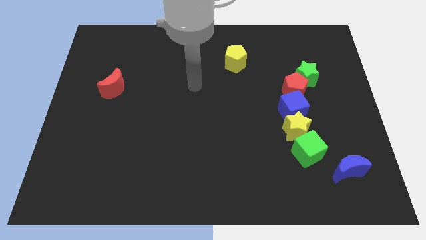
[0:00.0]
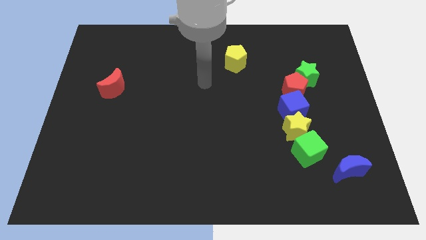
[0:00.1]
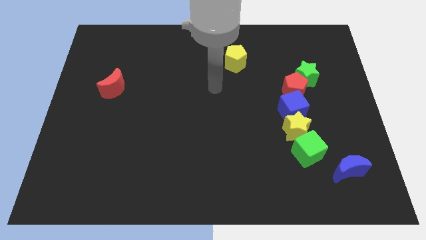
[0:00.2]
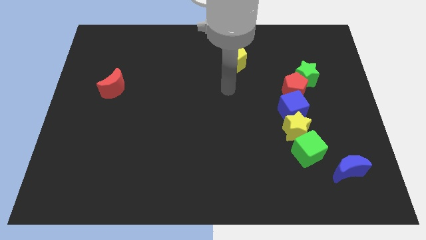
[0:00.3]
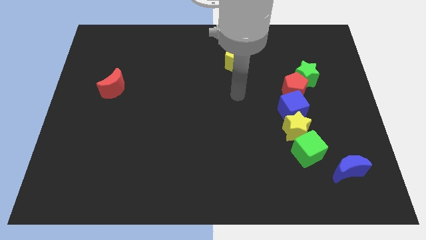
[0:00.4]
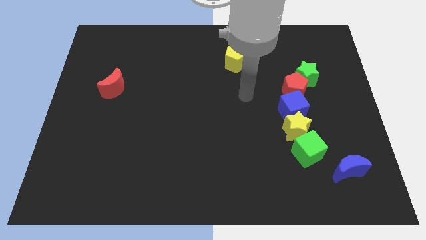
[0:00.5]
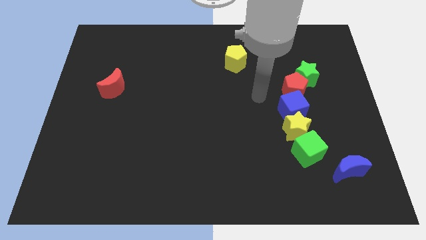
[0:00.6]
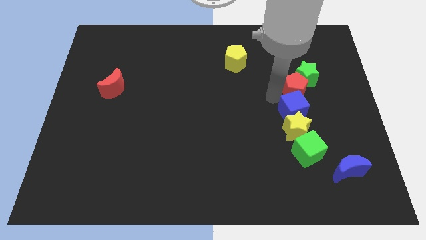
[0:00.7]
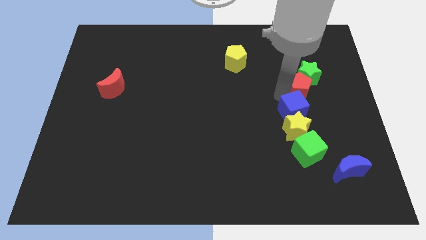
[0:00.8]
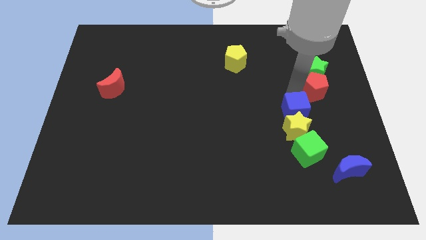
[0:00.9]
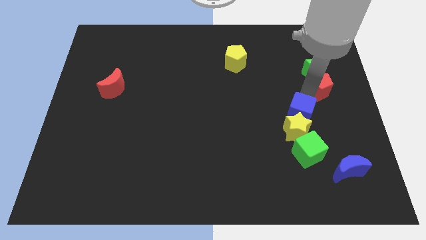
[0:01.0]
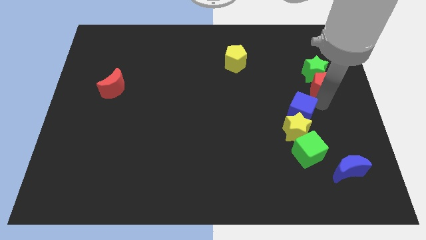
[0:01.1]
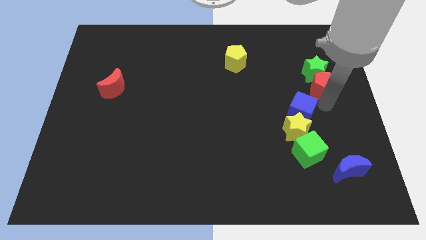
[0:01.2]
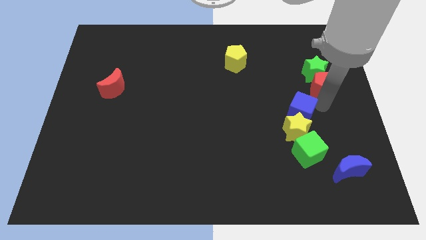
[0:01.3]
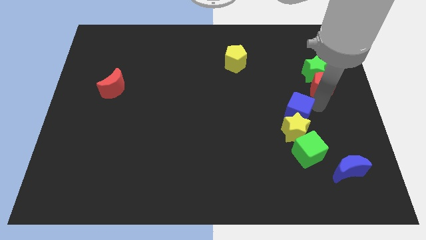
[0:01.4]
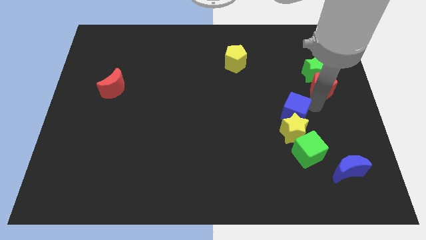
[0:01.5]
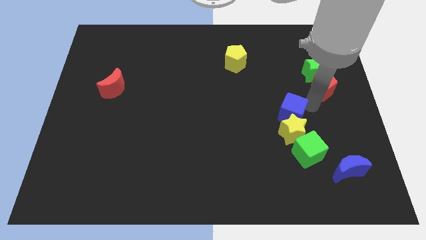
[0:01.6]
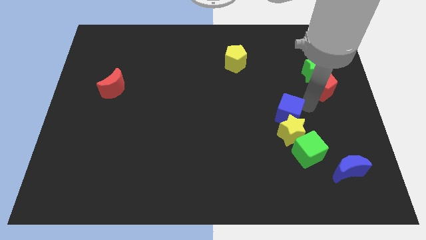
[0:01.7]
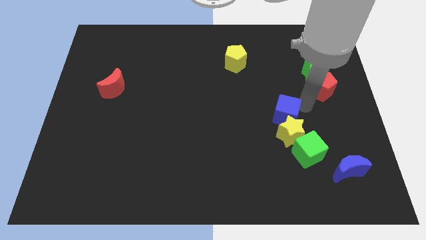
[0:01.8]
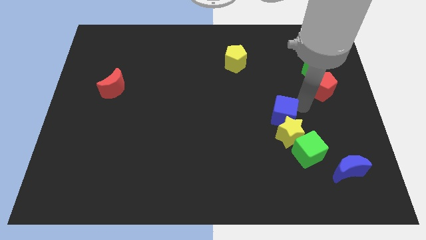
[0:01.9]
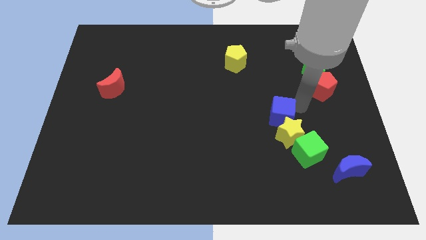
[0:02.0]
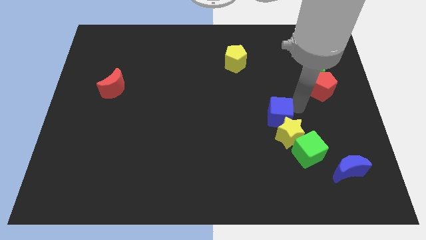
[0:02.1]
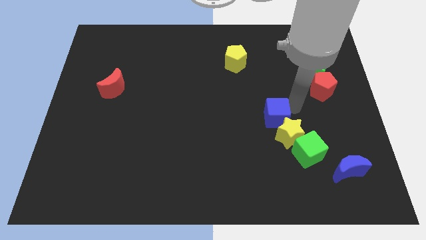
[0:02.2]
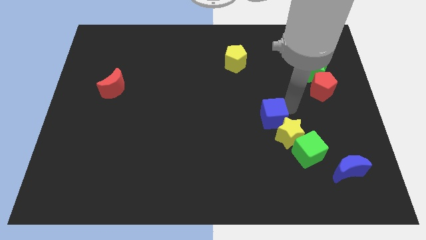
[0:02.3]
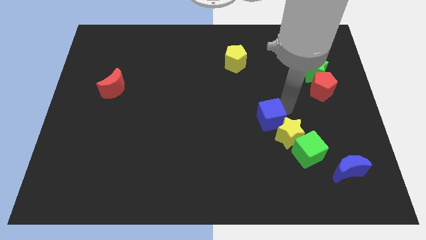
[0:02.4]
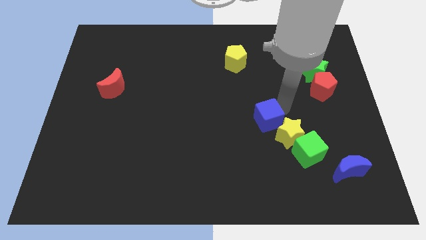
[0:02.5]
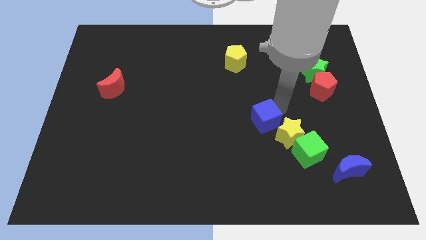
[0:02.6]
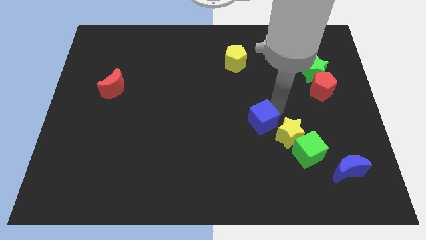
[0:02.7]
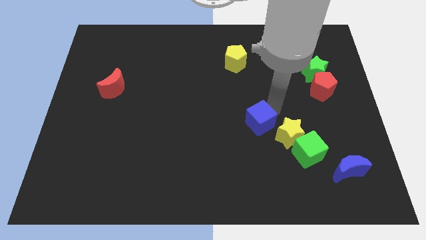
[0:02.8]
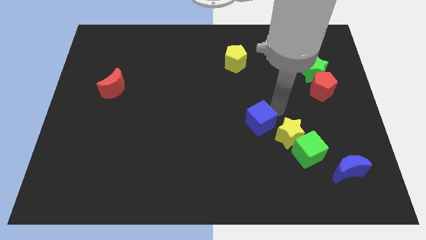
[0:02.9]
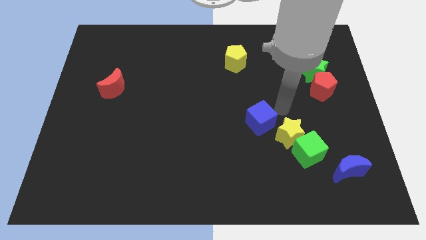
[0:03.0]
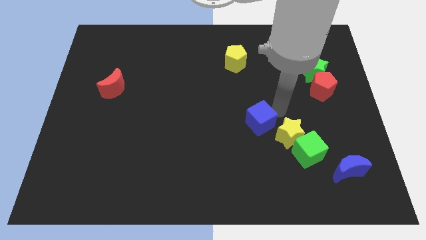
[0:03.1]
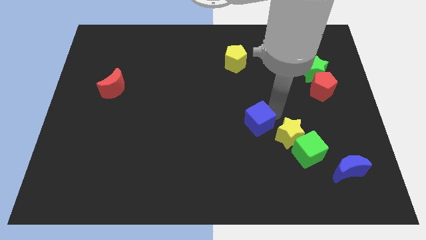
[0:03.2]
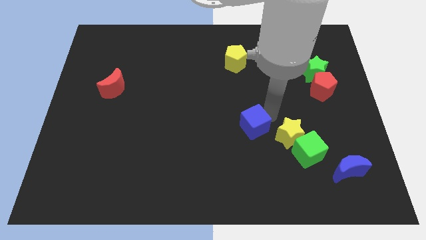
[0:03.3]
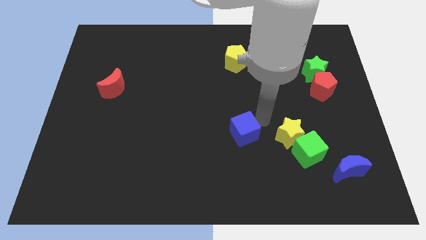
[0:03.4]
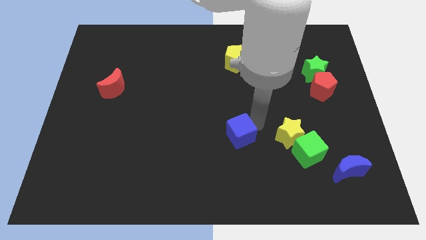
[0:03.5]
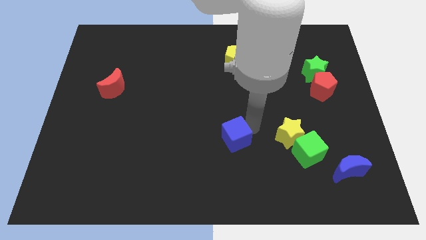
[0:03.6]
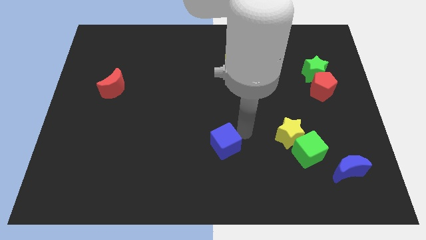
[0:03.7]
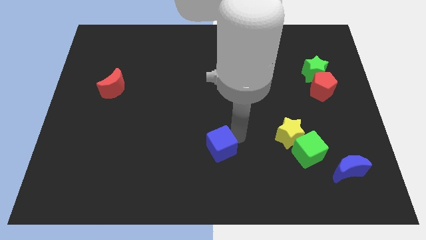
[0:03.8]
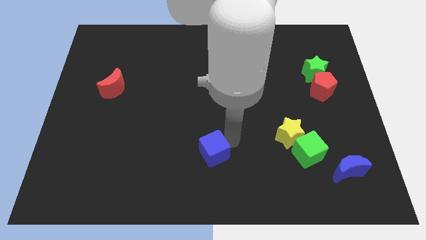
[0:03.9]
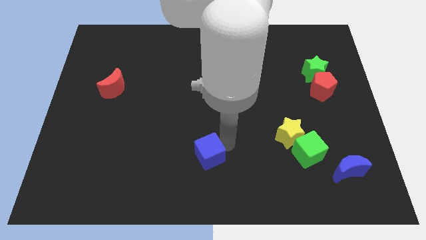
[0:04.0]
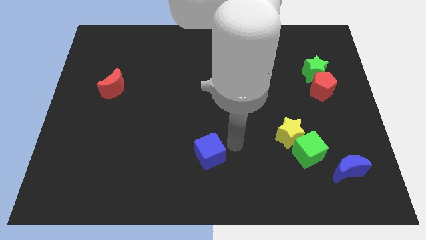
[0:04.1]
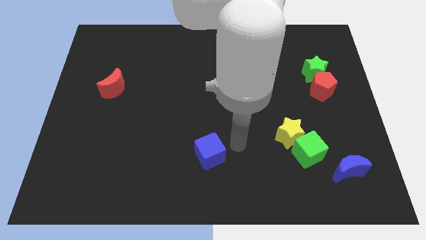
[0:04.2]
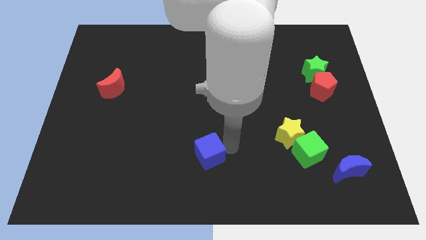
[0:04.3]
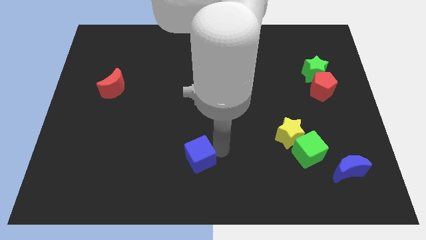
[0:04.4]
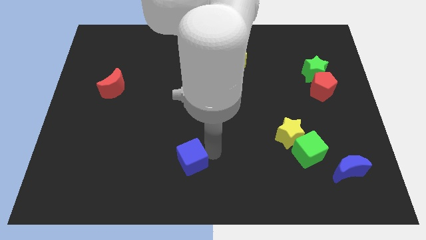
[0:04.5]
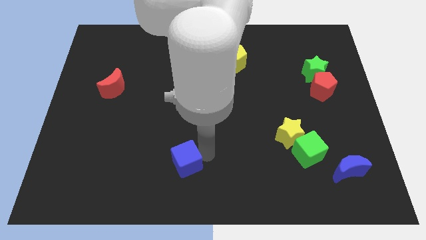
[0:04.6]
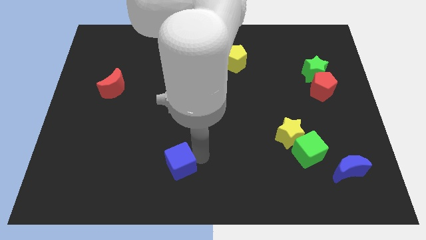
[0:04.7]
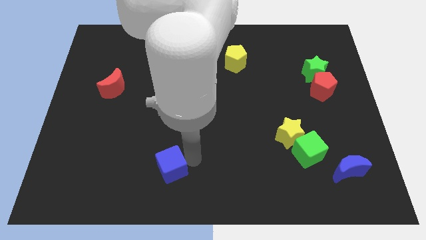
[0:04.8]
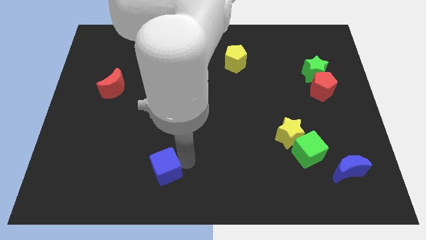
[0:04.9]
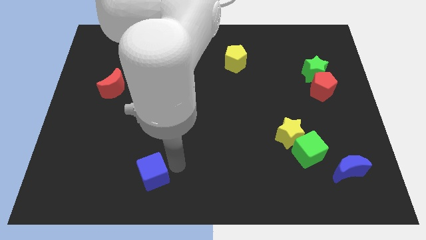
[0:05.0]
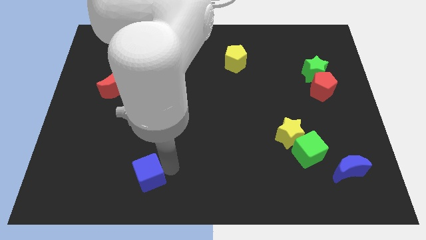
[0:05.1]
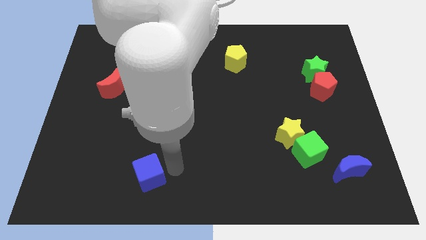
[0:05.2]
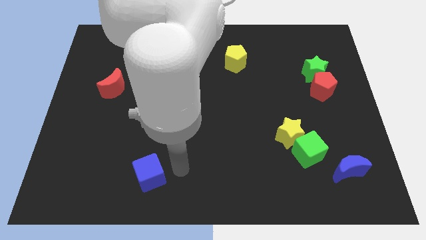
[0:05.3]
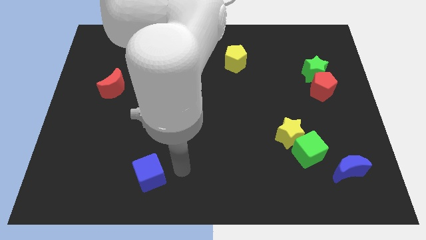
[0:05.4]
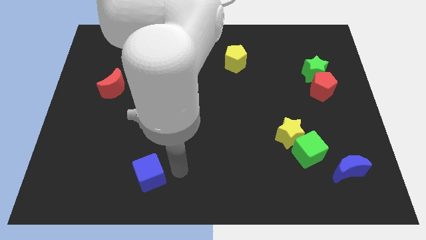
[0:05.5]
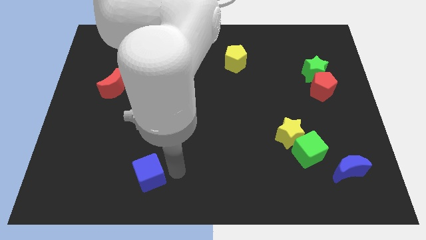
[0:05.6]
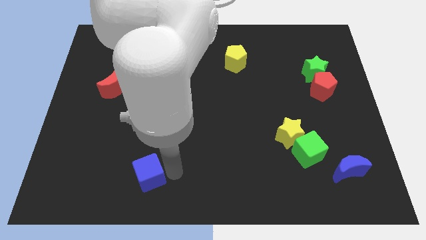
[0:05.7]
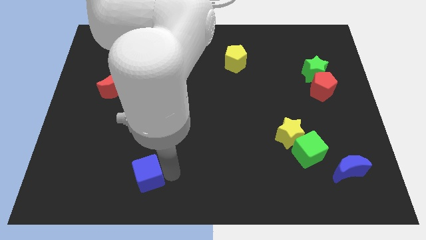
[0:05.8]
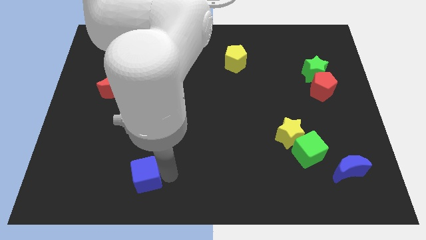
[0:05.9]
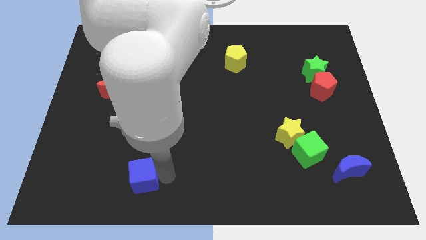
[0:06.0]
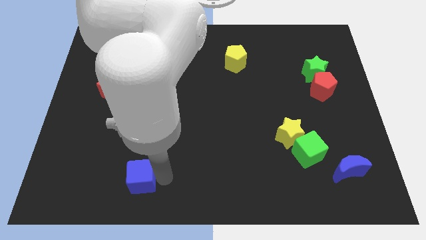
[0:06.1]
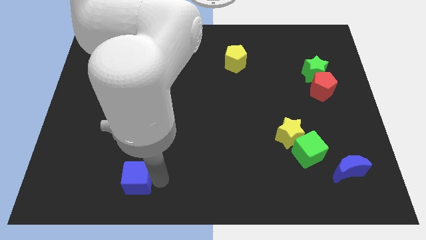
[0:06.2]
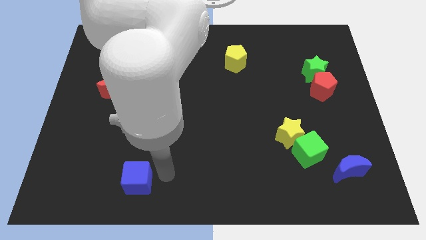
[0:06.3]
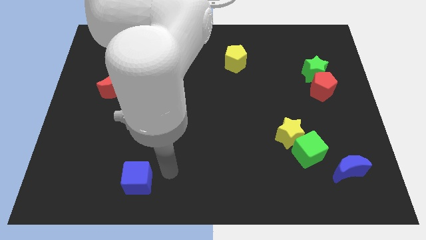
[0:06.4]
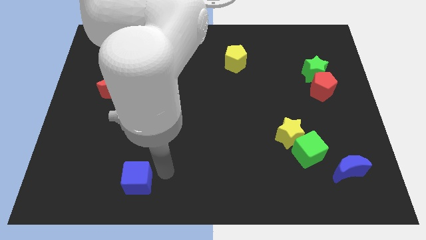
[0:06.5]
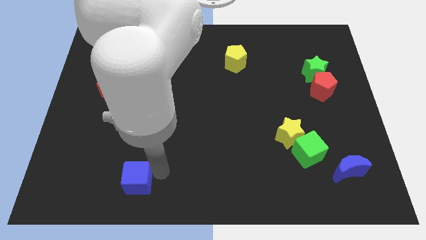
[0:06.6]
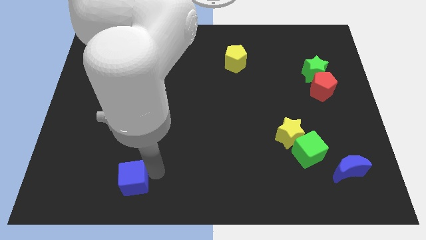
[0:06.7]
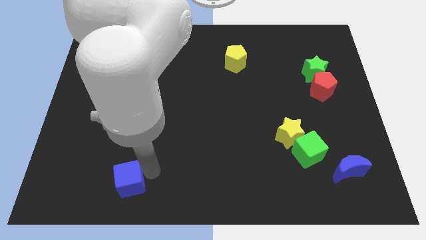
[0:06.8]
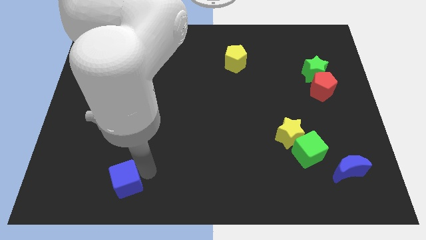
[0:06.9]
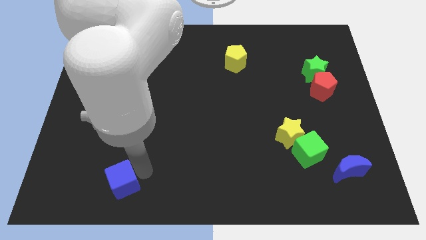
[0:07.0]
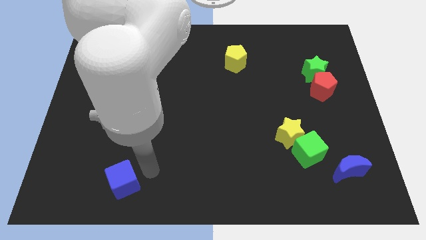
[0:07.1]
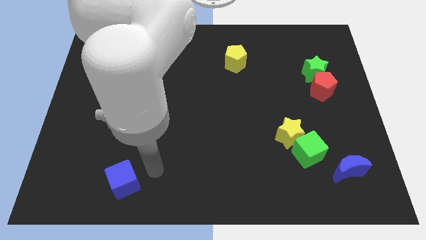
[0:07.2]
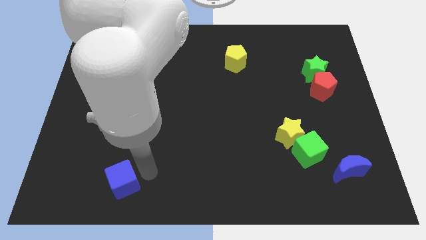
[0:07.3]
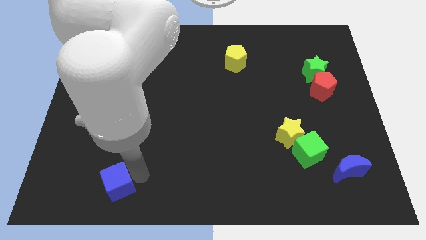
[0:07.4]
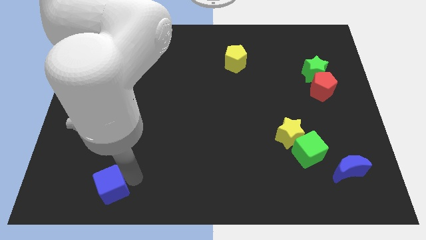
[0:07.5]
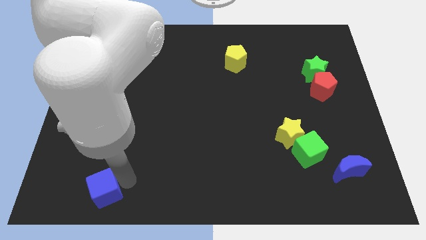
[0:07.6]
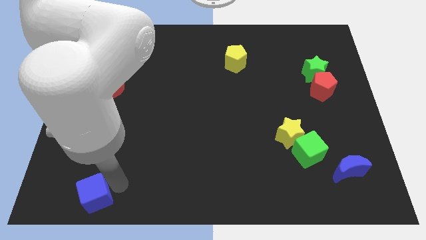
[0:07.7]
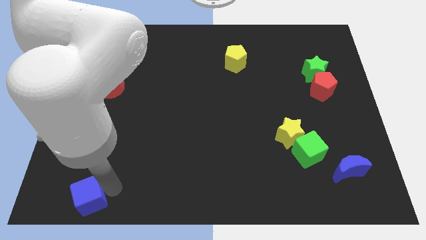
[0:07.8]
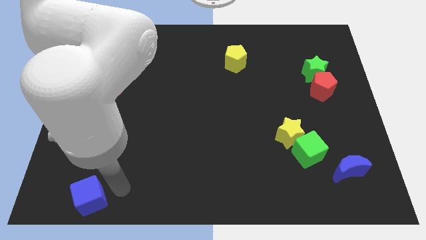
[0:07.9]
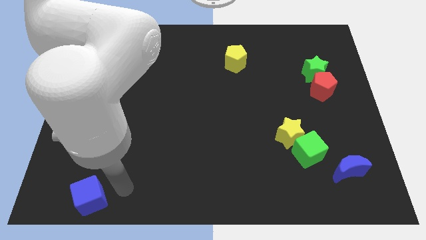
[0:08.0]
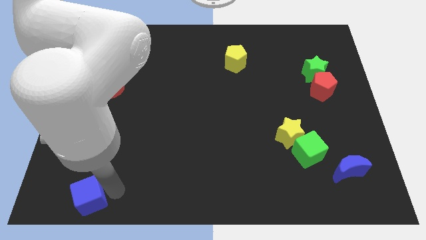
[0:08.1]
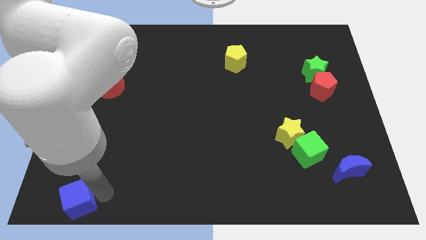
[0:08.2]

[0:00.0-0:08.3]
push the blue cube to the bottom left corner
